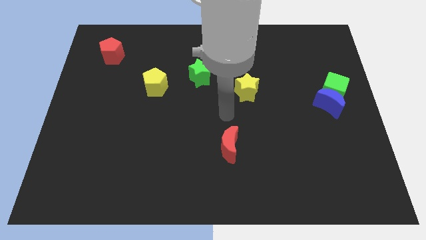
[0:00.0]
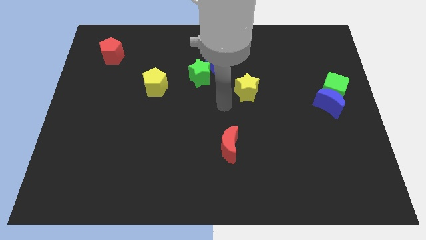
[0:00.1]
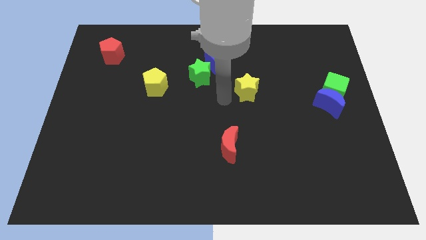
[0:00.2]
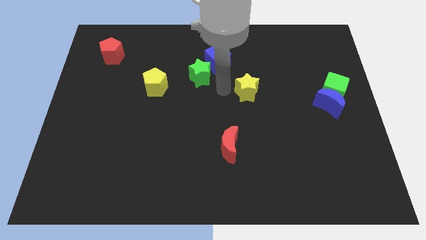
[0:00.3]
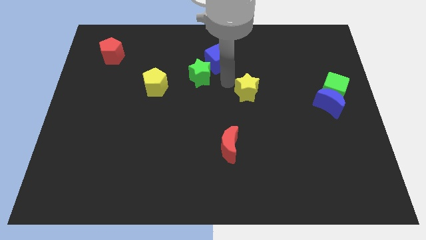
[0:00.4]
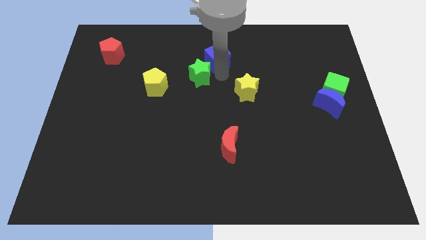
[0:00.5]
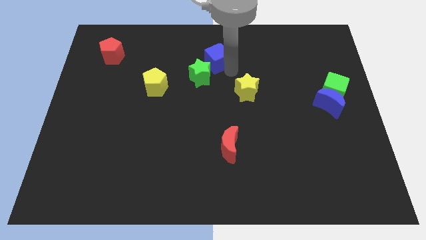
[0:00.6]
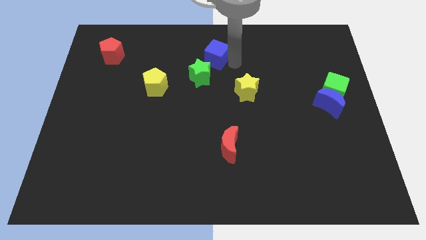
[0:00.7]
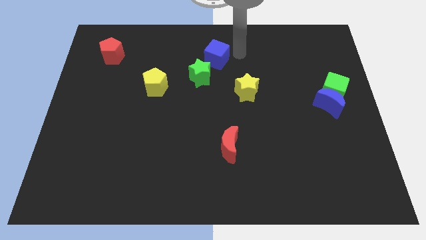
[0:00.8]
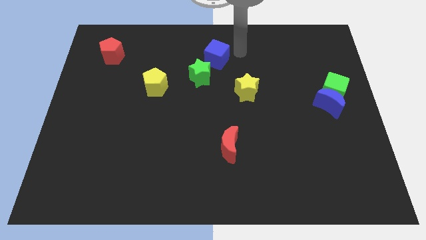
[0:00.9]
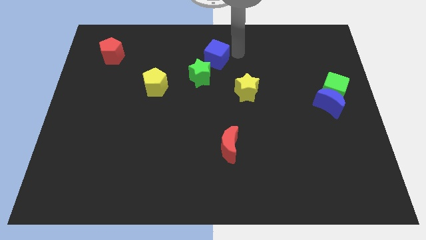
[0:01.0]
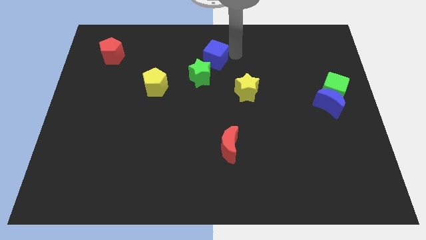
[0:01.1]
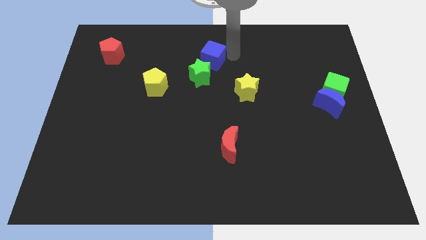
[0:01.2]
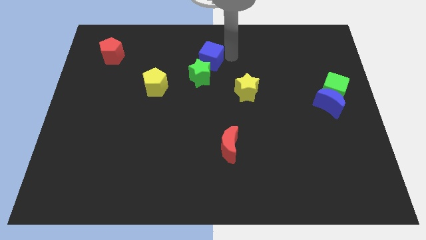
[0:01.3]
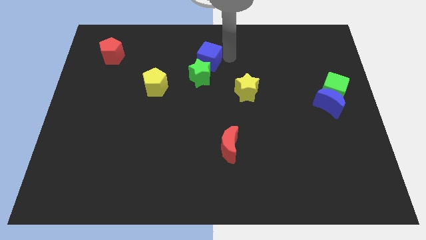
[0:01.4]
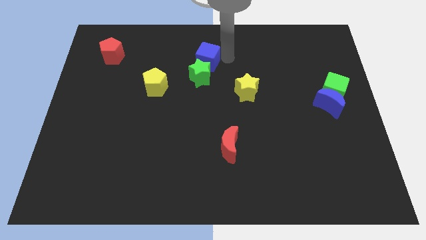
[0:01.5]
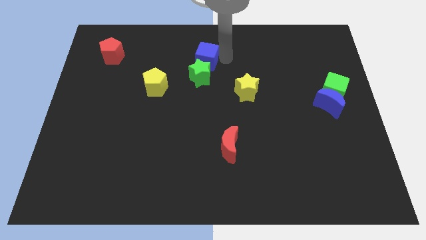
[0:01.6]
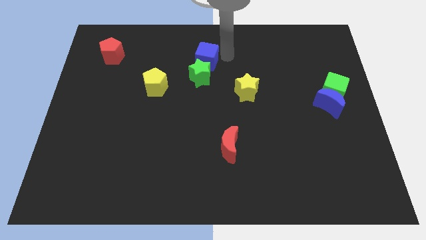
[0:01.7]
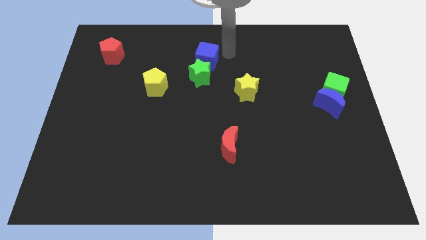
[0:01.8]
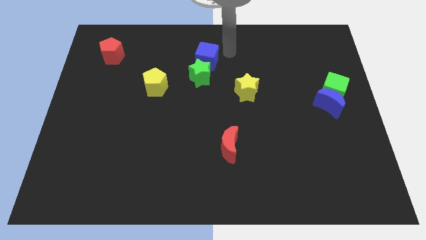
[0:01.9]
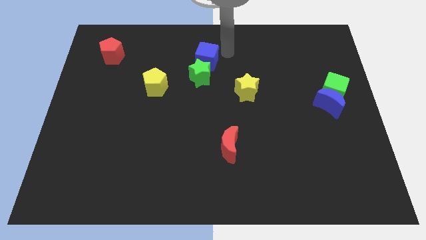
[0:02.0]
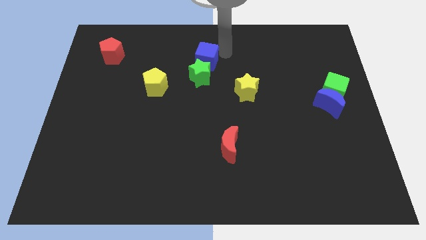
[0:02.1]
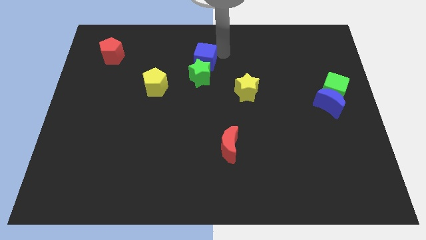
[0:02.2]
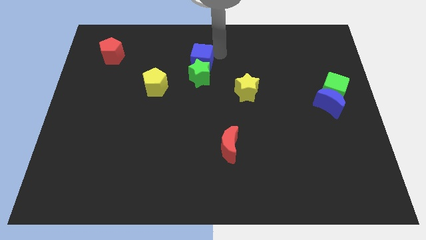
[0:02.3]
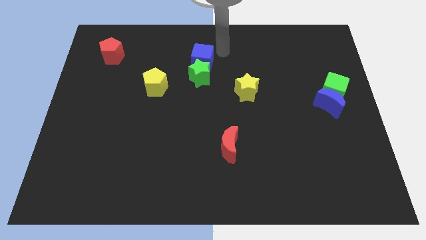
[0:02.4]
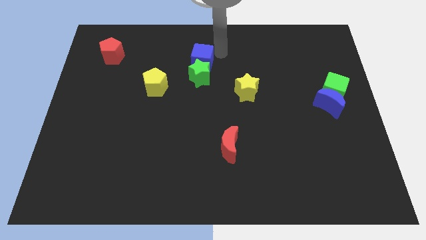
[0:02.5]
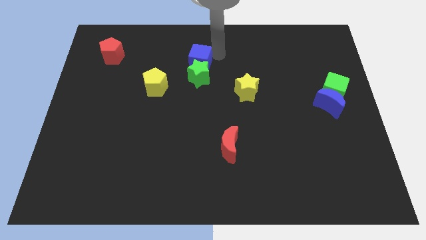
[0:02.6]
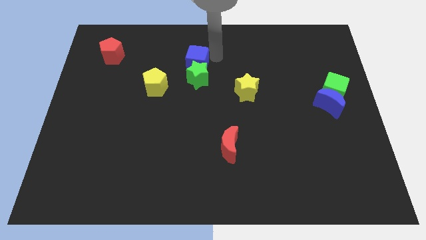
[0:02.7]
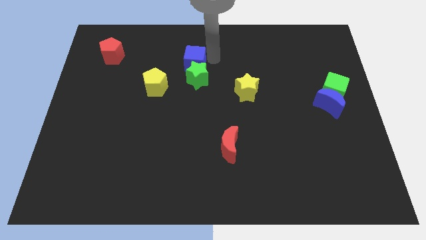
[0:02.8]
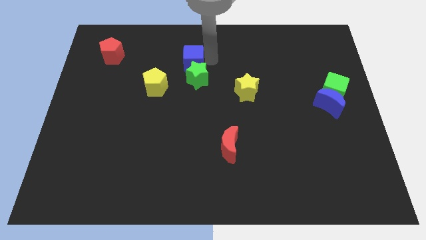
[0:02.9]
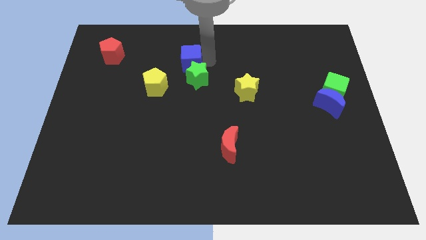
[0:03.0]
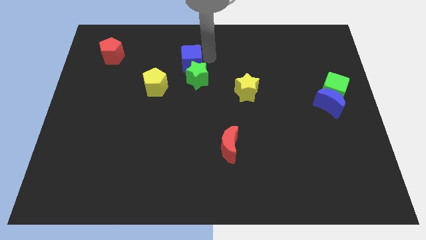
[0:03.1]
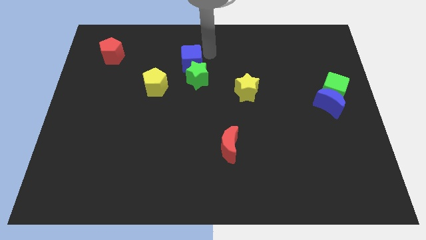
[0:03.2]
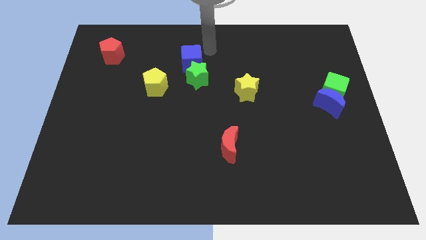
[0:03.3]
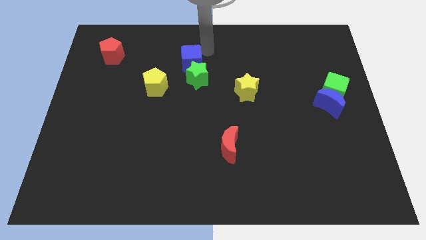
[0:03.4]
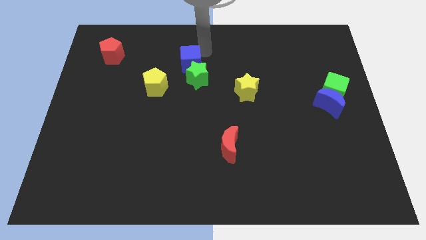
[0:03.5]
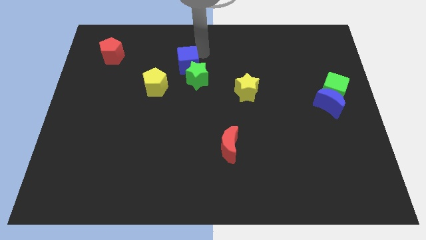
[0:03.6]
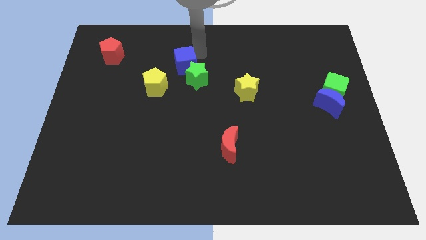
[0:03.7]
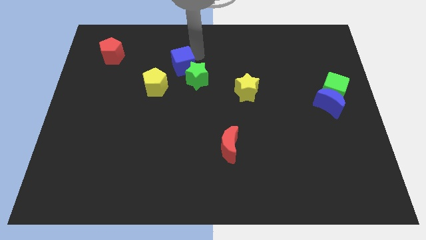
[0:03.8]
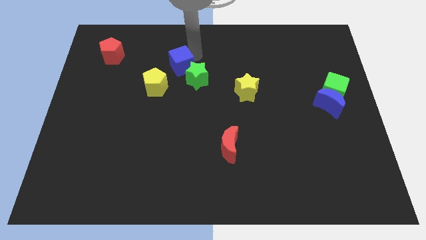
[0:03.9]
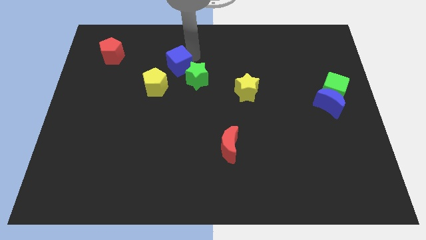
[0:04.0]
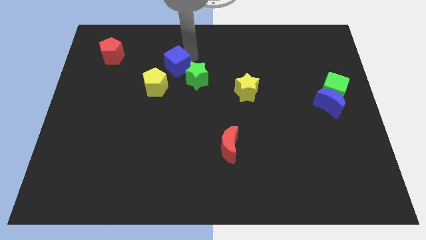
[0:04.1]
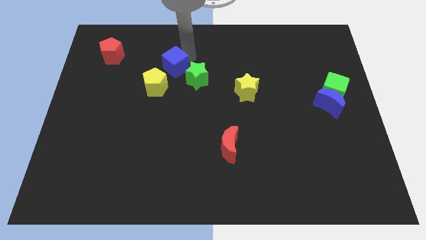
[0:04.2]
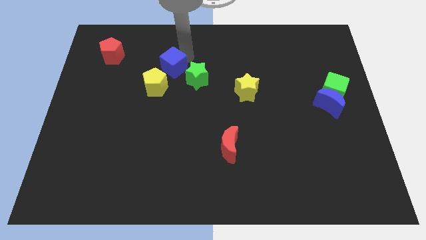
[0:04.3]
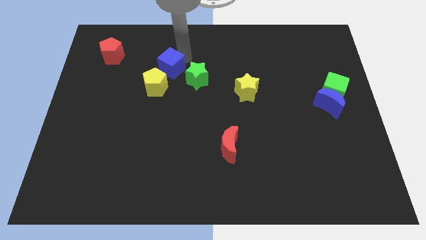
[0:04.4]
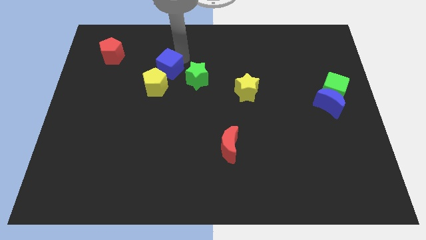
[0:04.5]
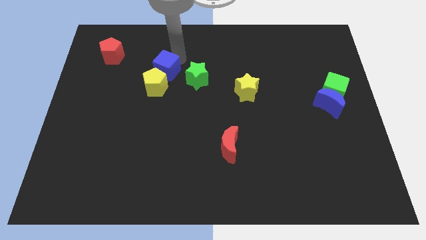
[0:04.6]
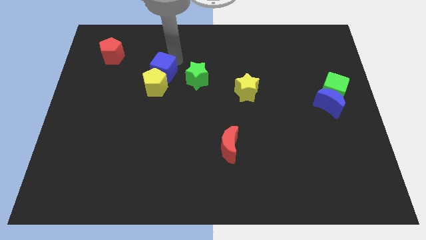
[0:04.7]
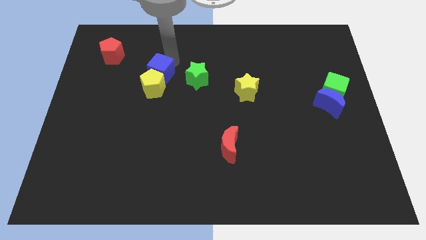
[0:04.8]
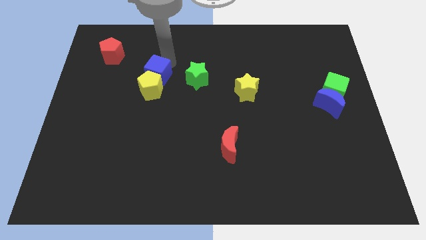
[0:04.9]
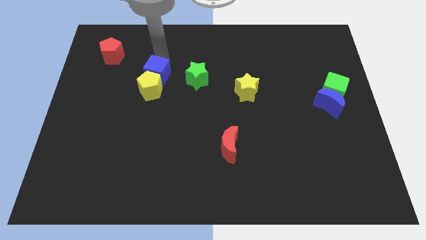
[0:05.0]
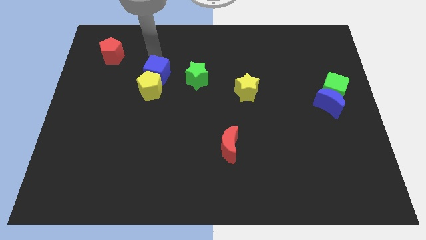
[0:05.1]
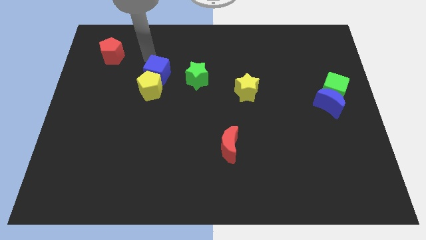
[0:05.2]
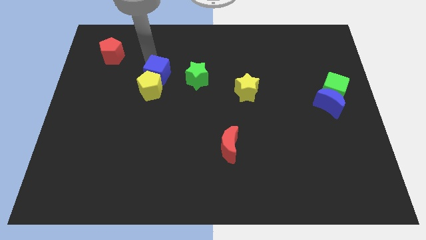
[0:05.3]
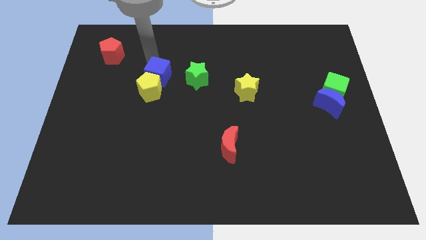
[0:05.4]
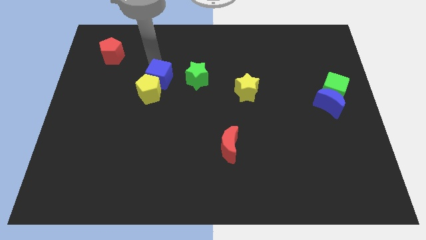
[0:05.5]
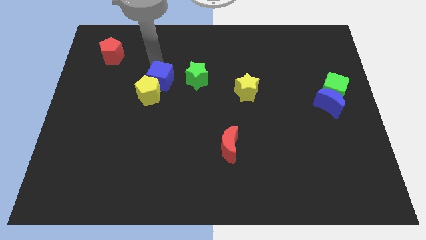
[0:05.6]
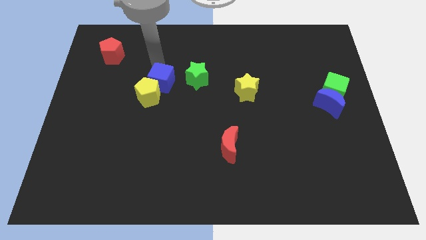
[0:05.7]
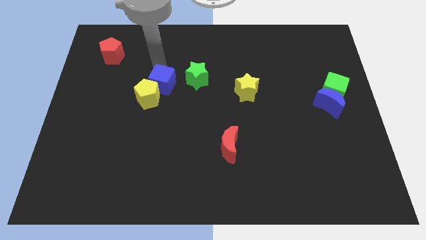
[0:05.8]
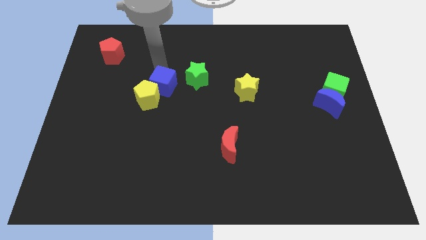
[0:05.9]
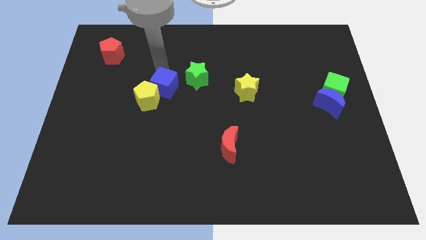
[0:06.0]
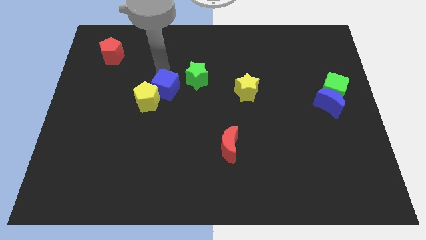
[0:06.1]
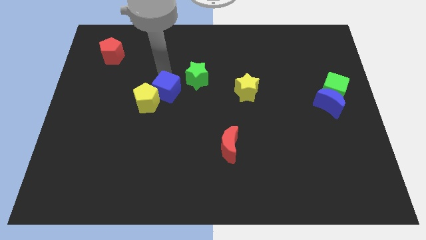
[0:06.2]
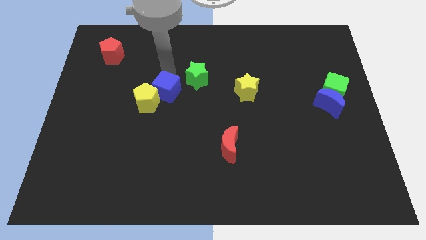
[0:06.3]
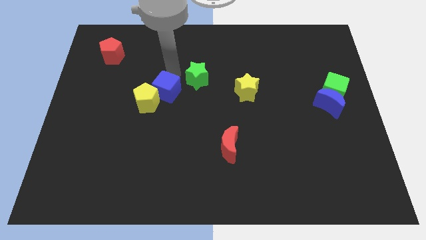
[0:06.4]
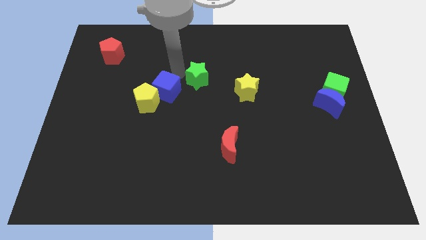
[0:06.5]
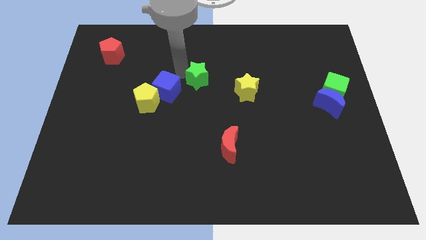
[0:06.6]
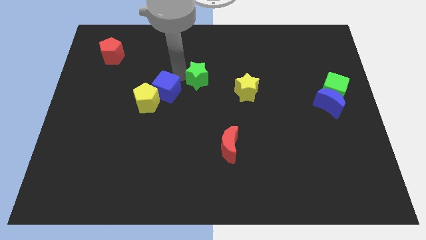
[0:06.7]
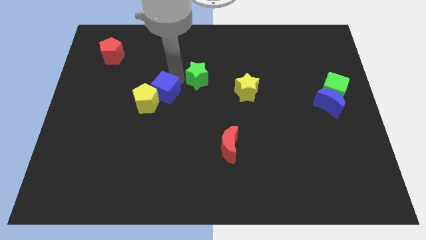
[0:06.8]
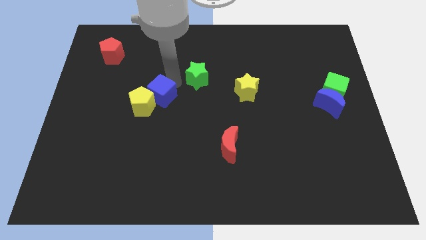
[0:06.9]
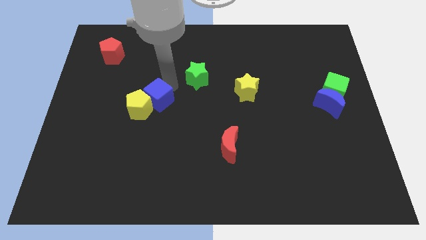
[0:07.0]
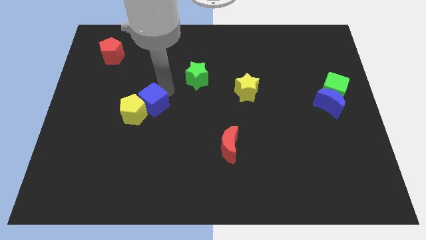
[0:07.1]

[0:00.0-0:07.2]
move the blue cube down and left

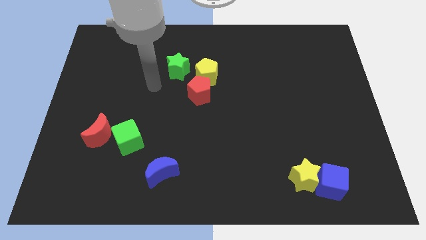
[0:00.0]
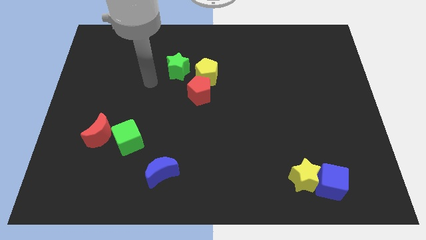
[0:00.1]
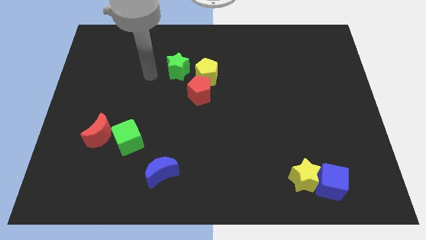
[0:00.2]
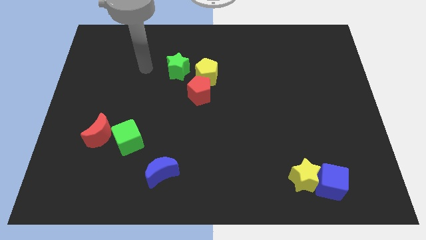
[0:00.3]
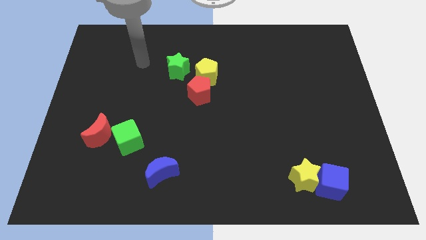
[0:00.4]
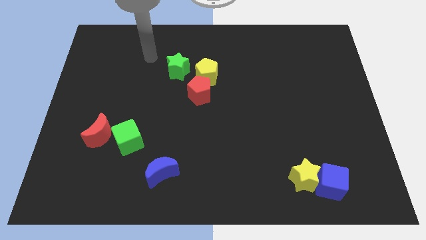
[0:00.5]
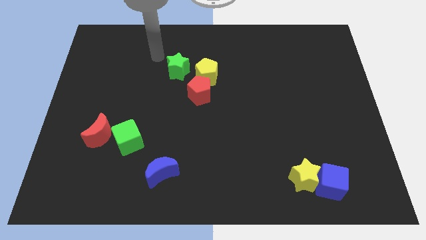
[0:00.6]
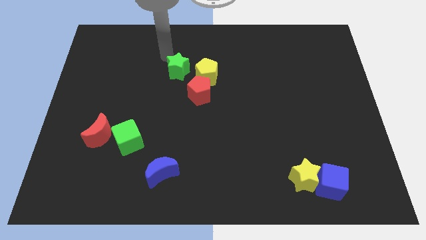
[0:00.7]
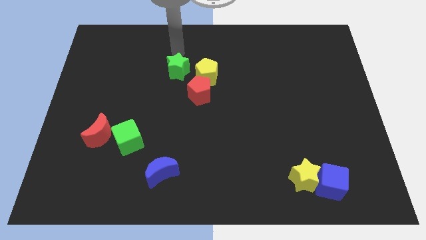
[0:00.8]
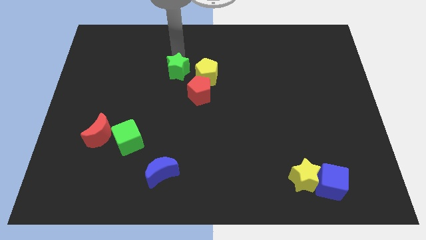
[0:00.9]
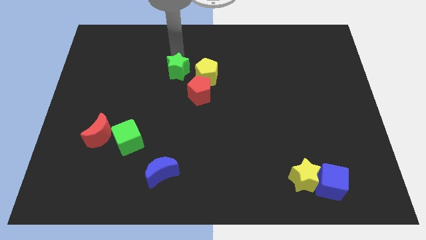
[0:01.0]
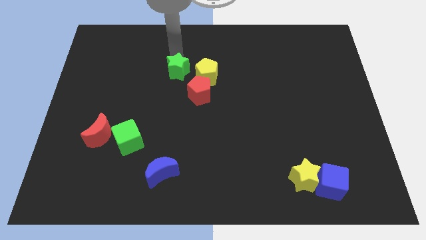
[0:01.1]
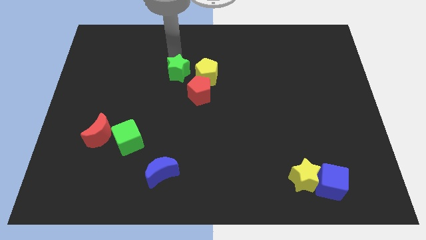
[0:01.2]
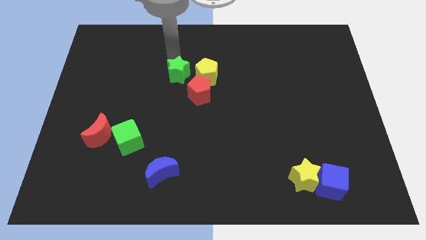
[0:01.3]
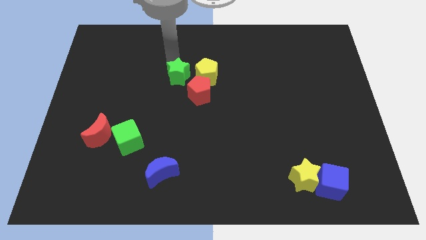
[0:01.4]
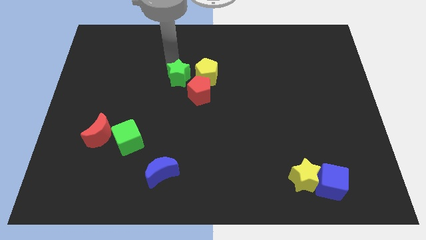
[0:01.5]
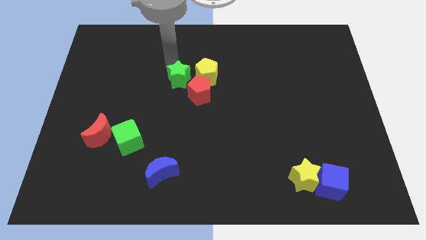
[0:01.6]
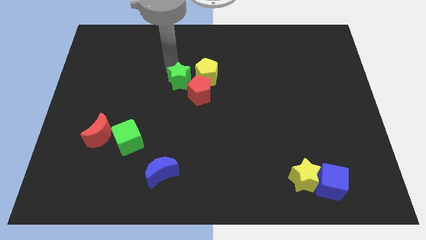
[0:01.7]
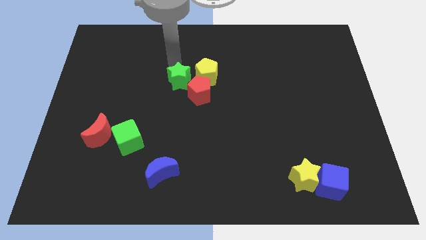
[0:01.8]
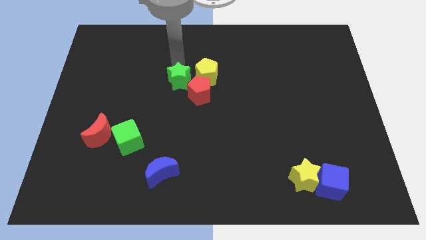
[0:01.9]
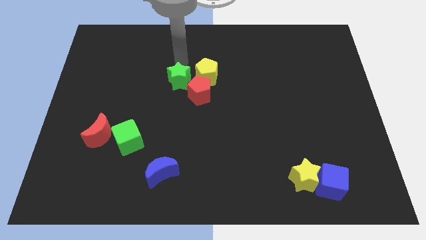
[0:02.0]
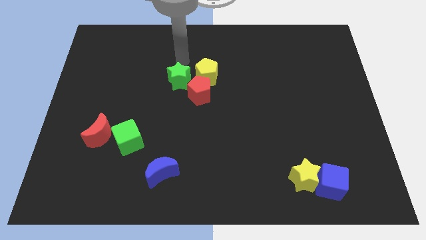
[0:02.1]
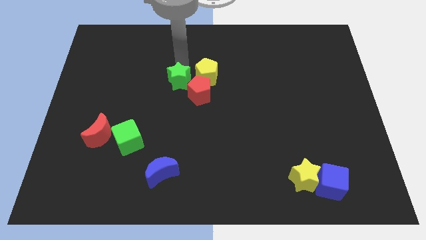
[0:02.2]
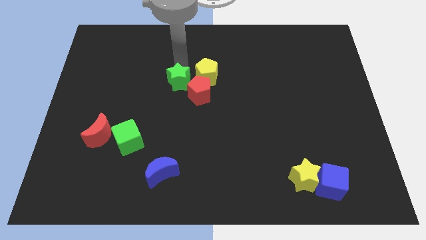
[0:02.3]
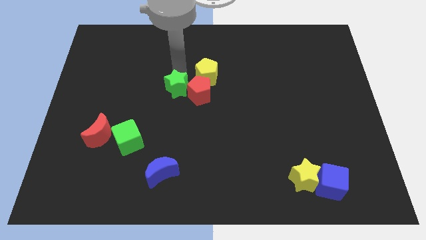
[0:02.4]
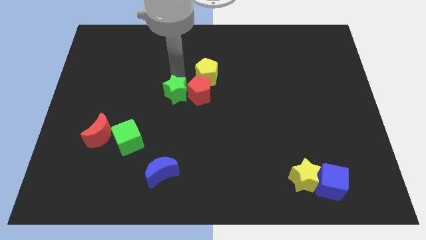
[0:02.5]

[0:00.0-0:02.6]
move the green star down a little
